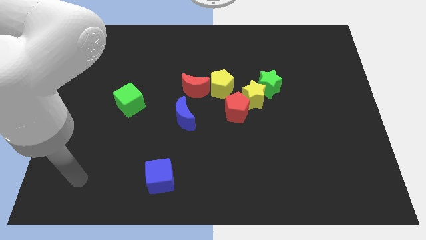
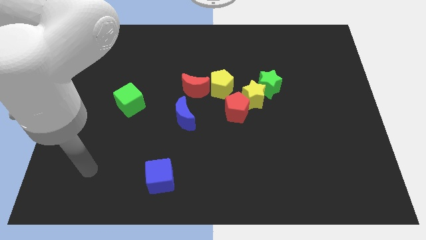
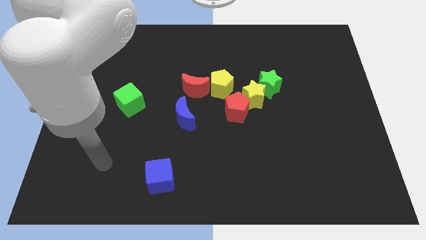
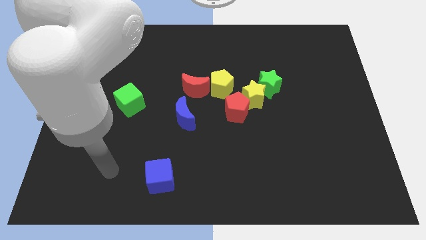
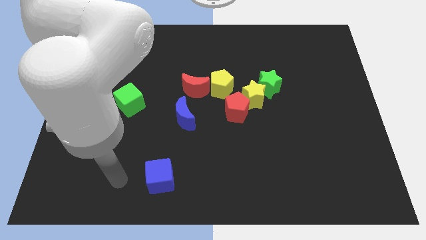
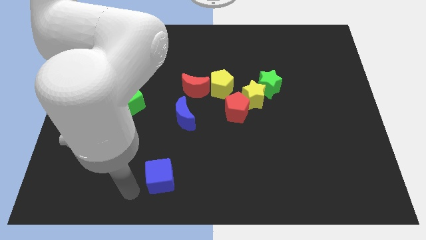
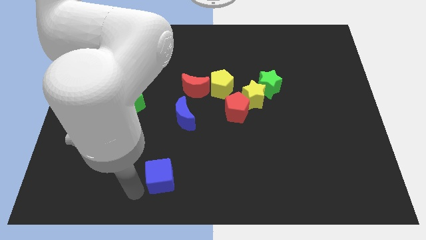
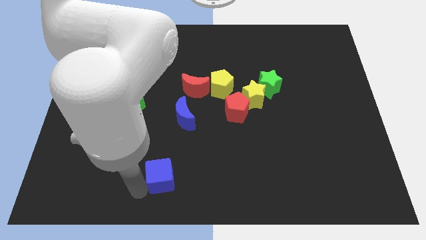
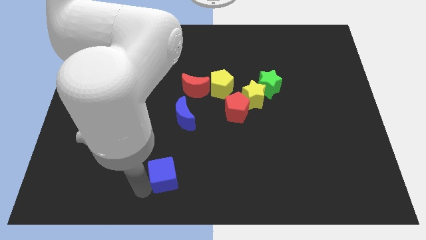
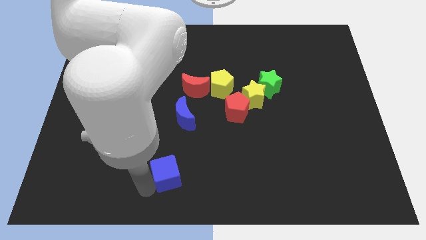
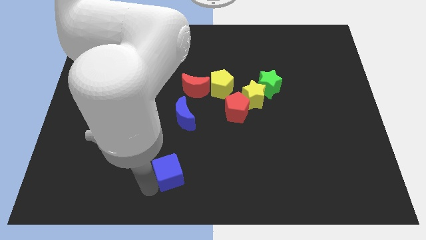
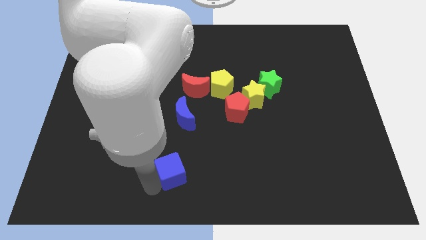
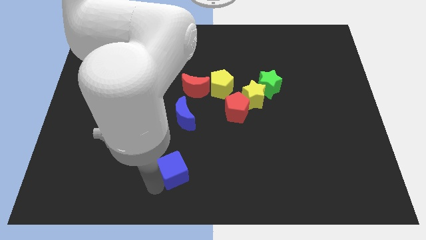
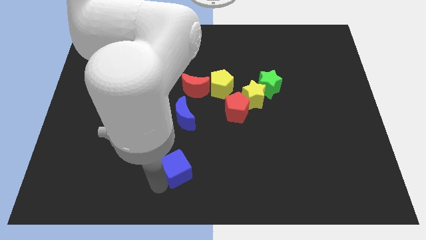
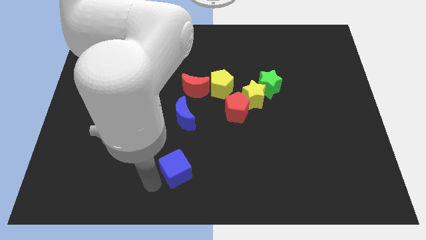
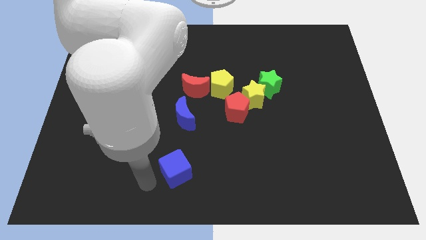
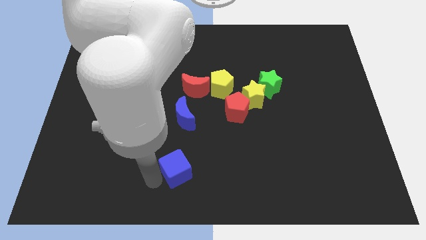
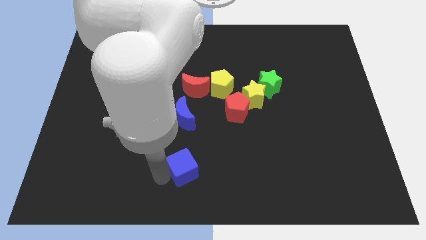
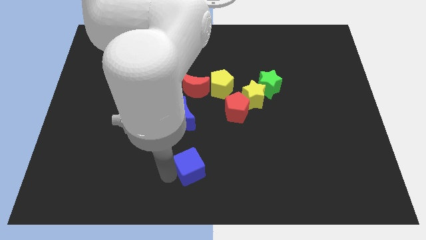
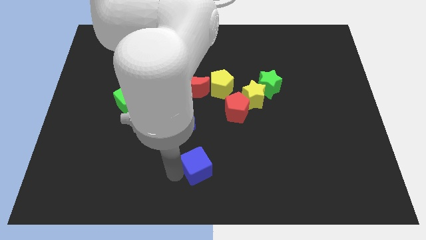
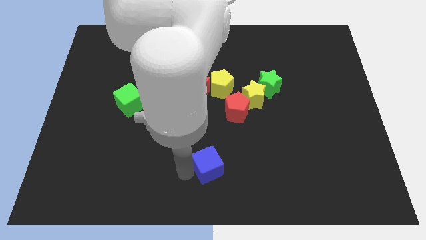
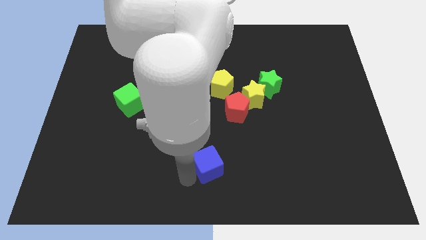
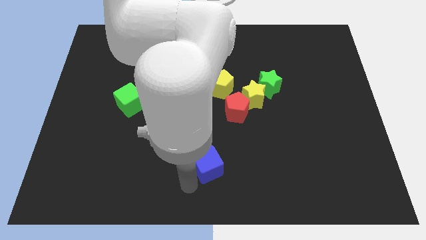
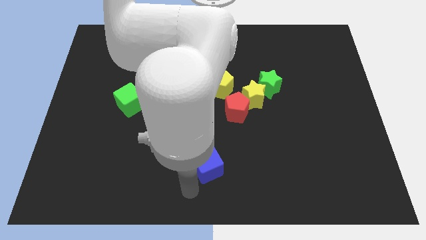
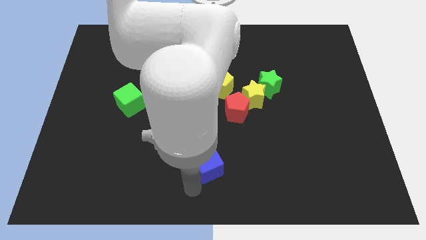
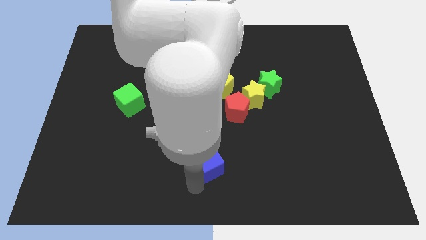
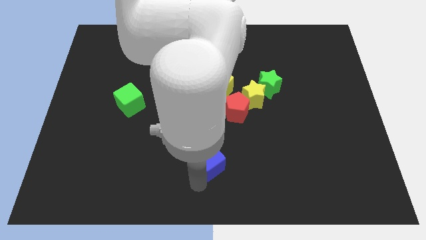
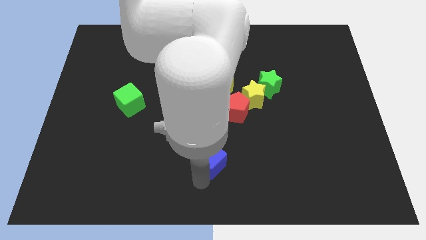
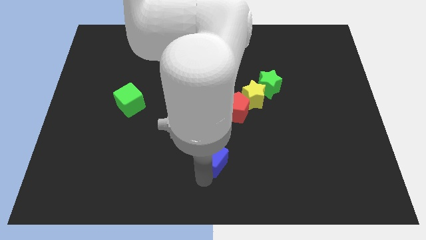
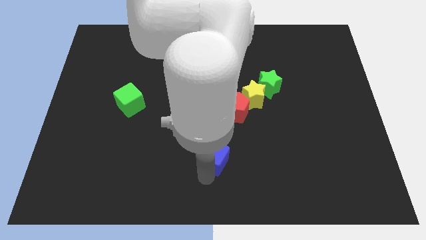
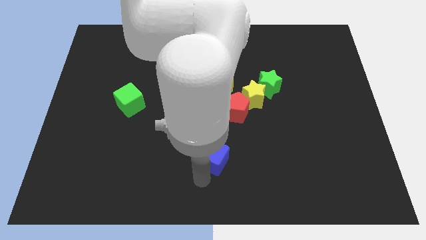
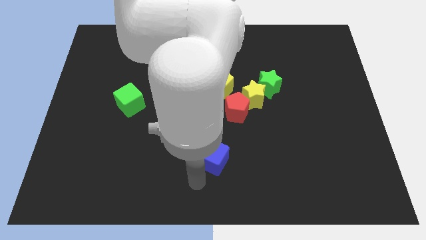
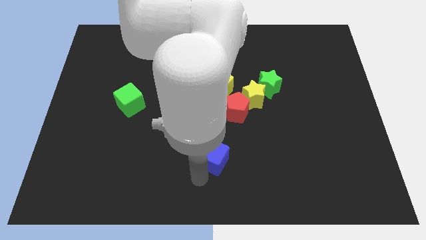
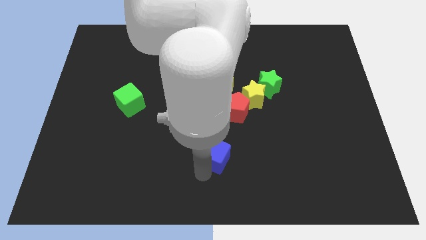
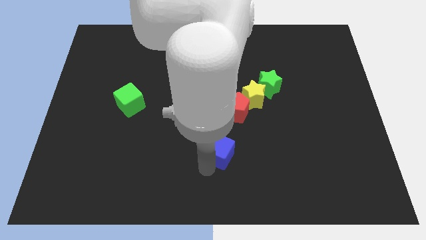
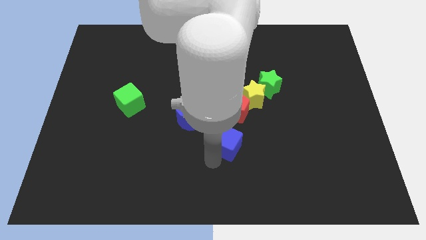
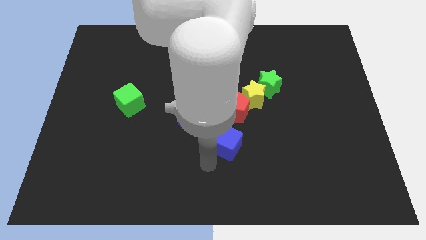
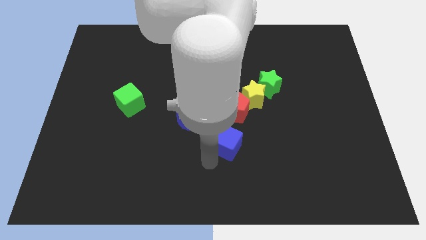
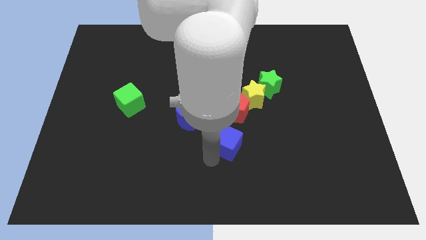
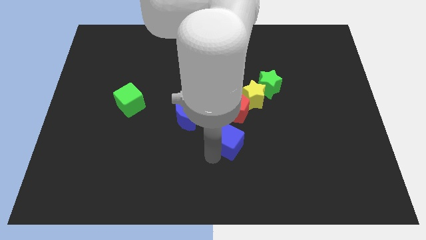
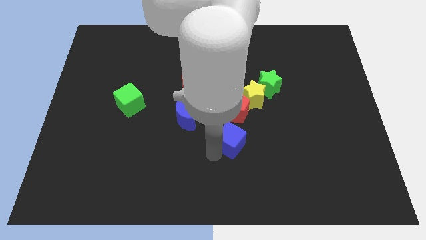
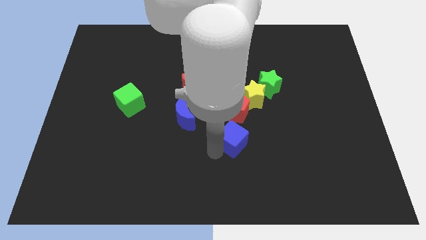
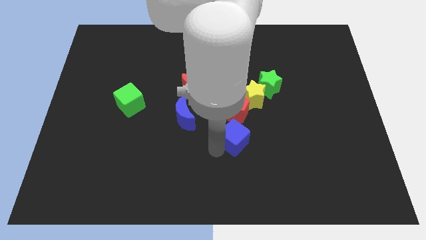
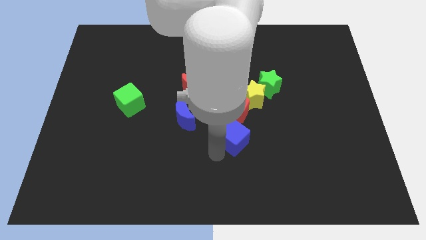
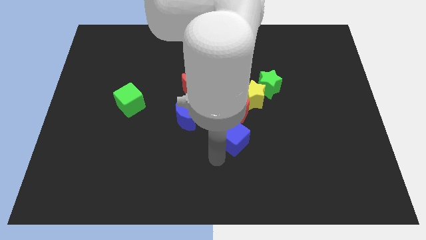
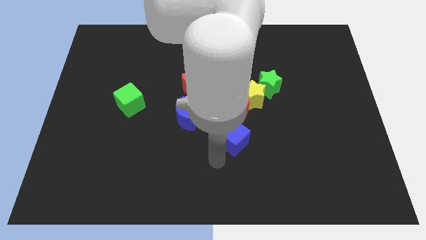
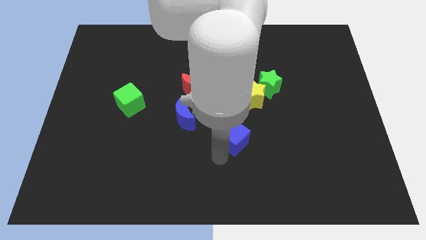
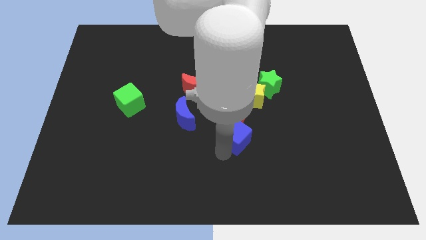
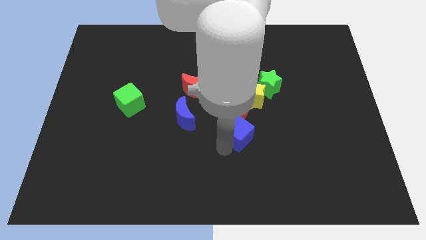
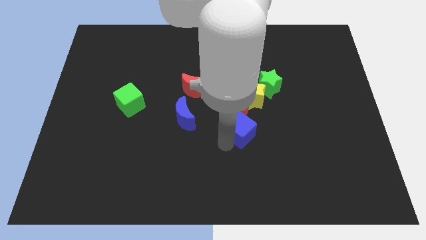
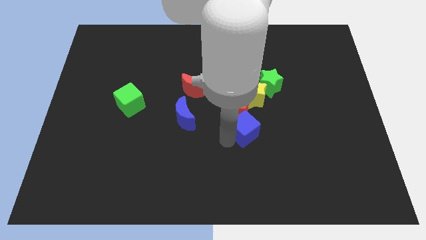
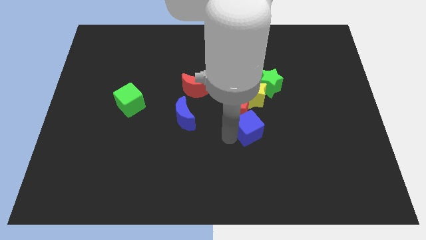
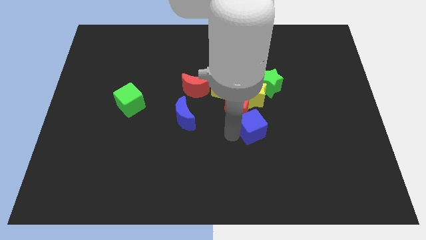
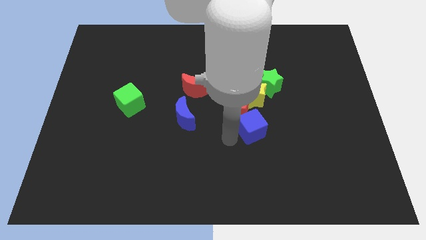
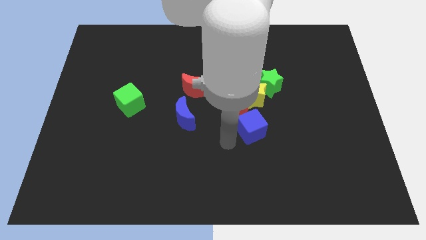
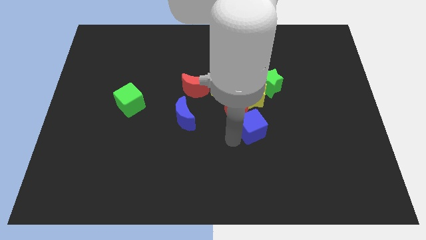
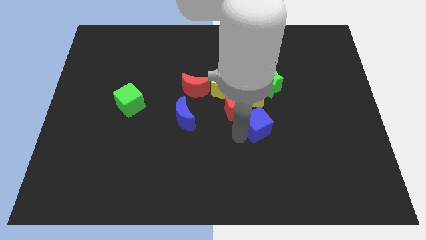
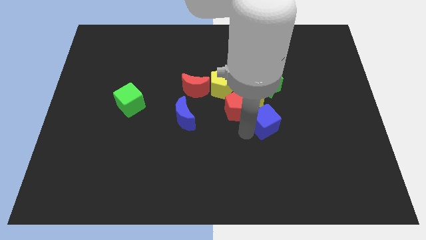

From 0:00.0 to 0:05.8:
push the blue cube diagonally down and to the right of the yellow star

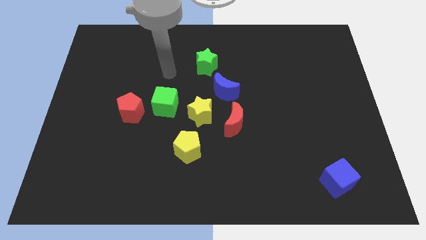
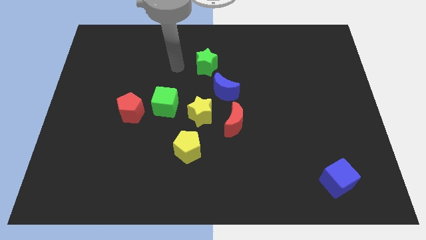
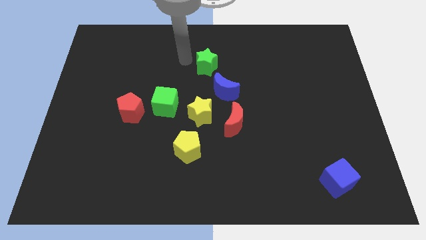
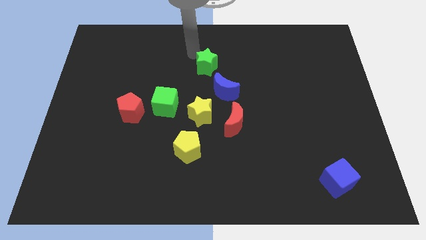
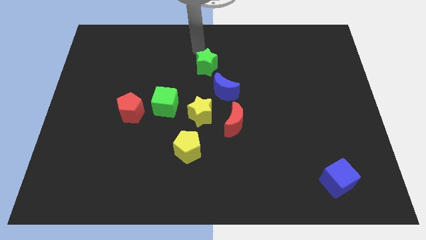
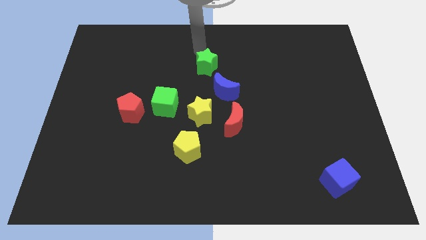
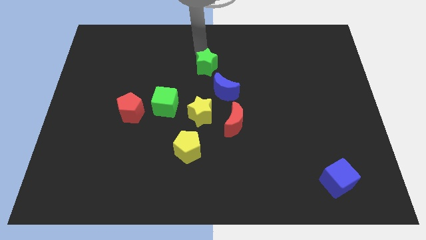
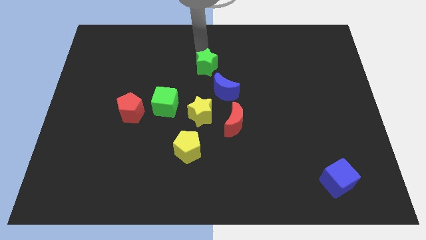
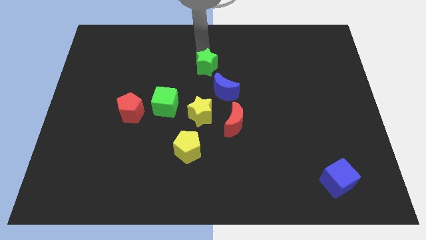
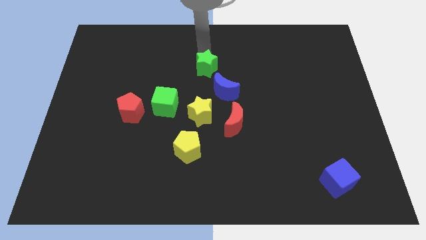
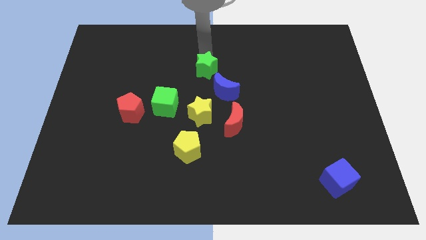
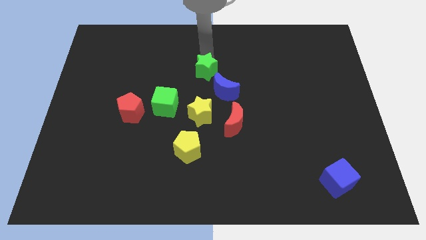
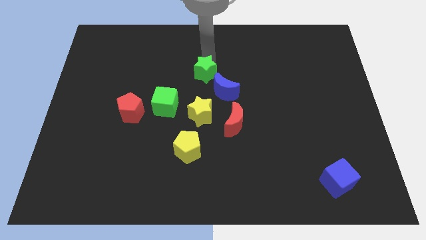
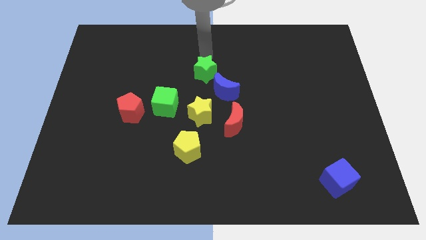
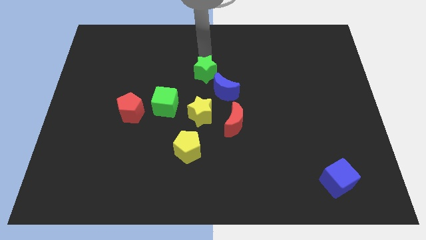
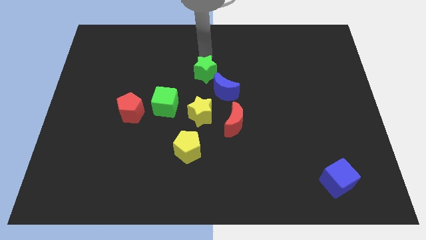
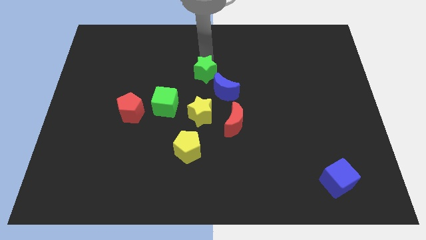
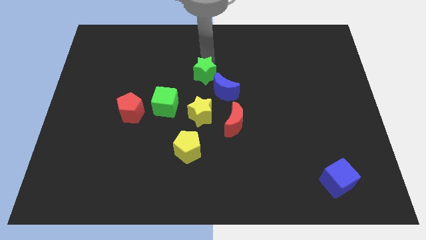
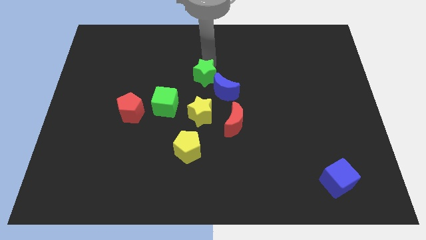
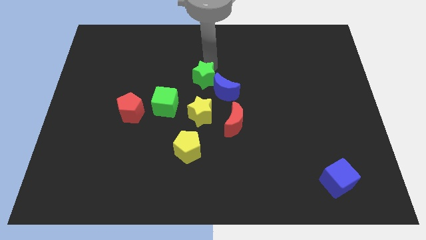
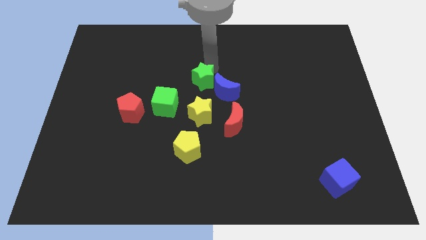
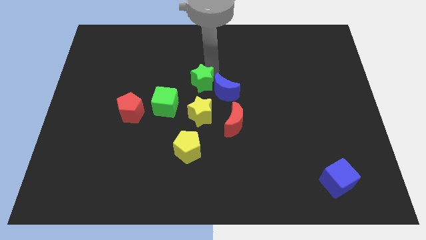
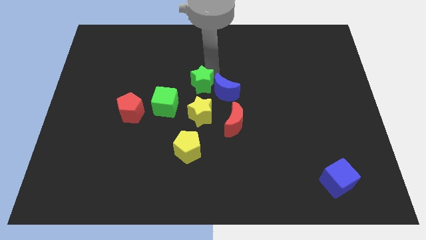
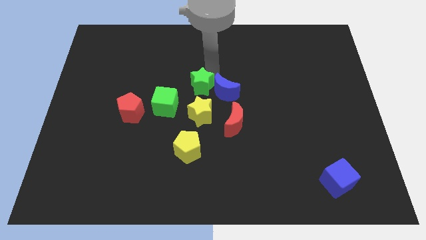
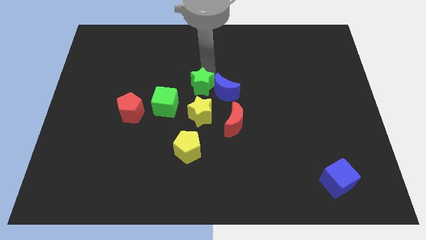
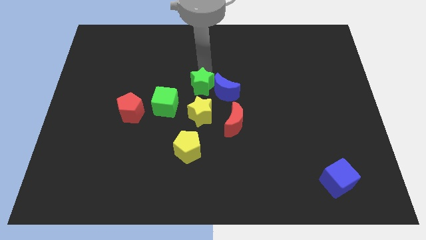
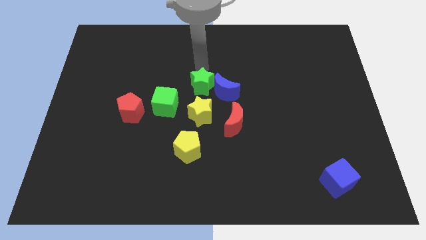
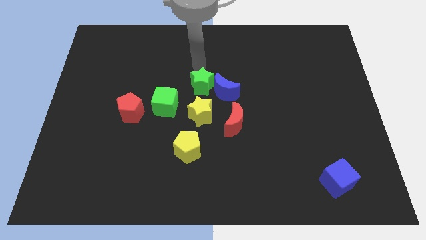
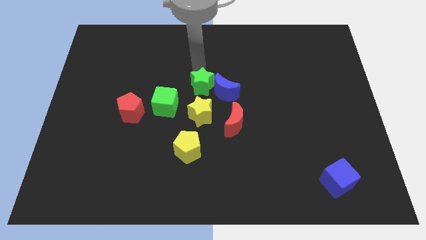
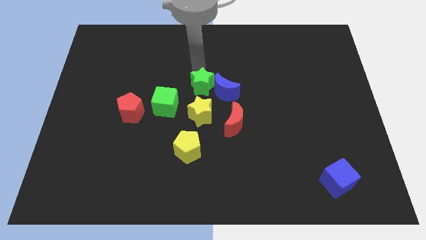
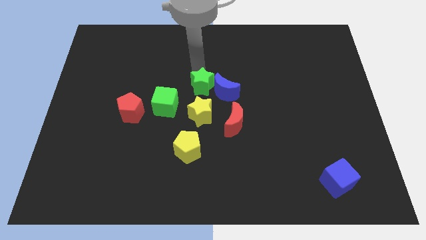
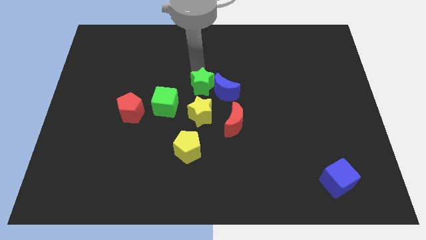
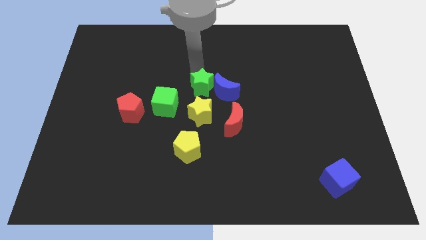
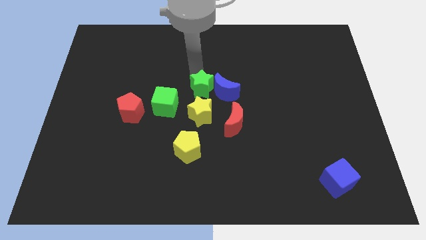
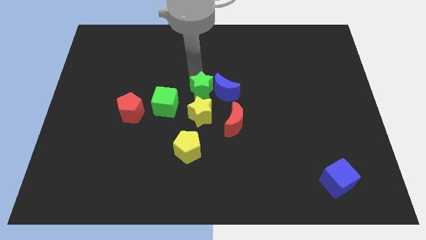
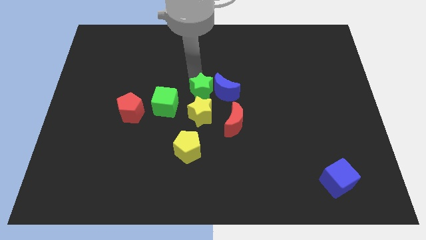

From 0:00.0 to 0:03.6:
move the green star diagonally up and to the left of the red moon
